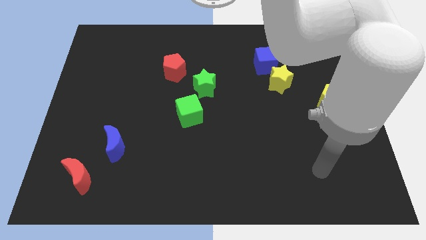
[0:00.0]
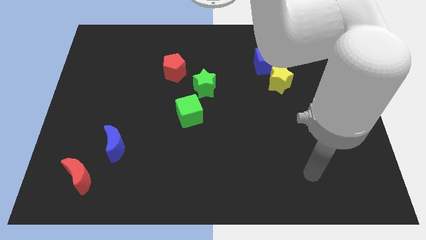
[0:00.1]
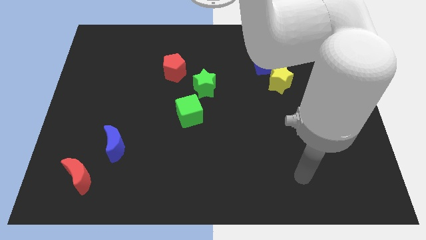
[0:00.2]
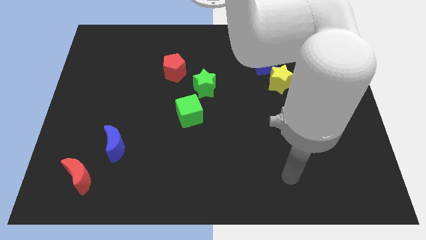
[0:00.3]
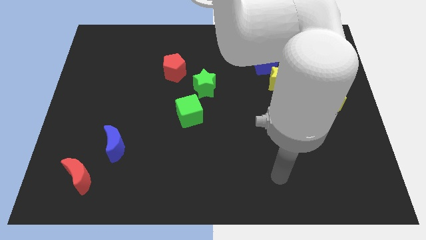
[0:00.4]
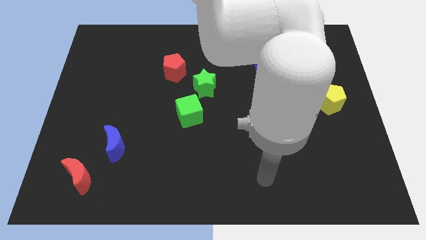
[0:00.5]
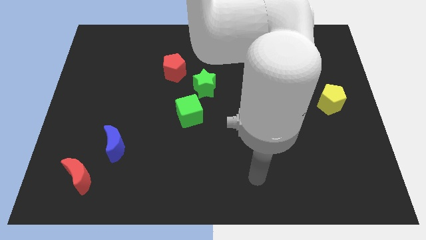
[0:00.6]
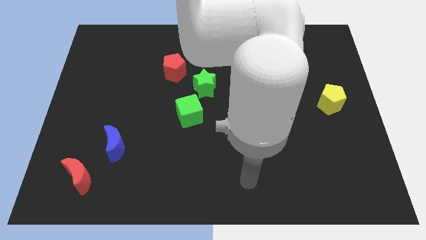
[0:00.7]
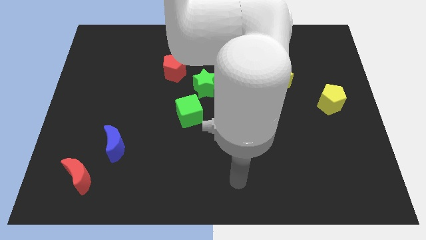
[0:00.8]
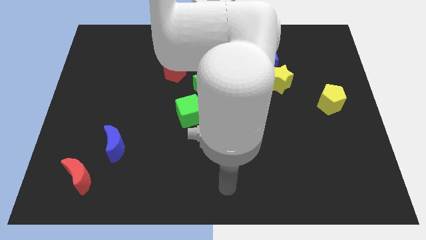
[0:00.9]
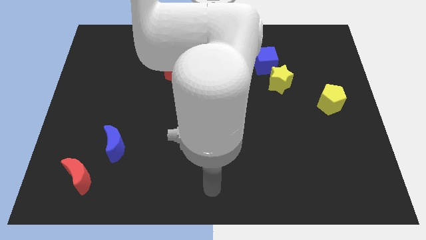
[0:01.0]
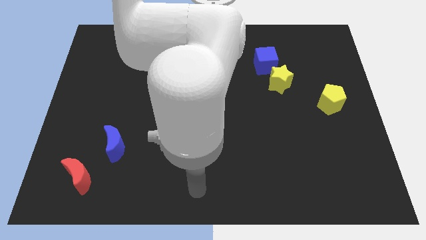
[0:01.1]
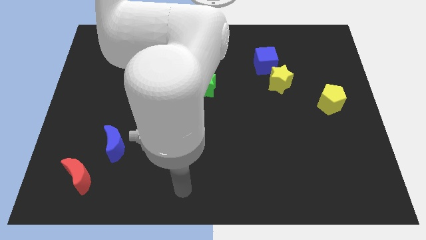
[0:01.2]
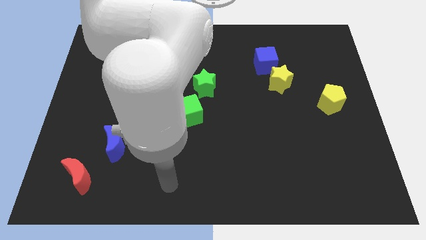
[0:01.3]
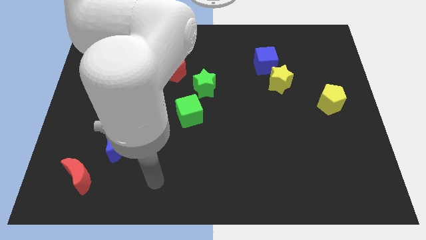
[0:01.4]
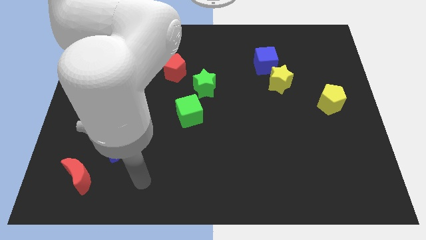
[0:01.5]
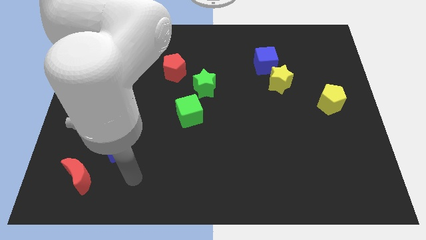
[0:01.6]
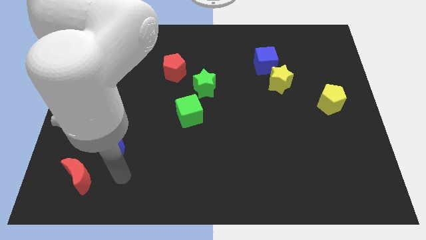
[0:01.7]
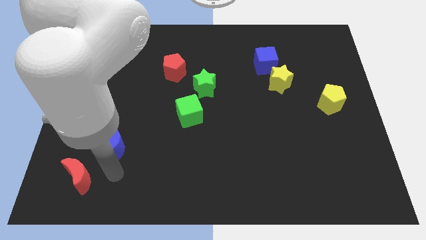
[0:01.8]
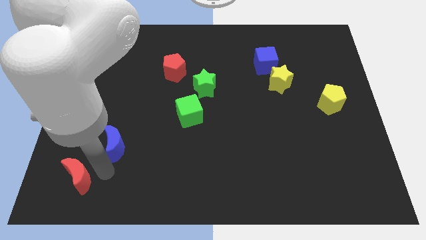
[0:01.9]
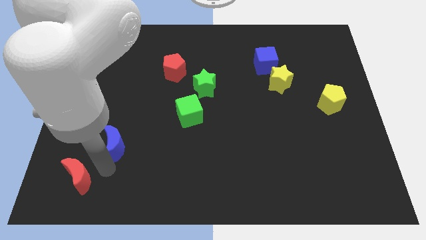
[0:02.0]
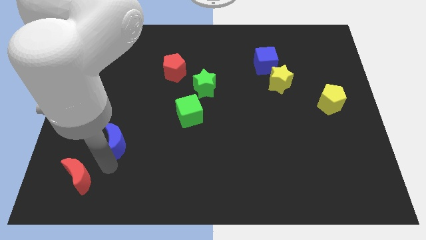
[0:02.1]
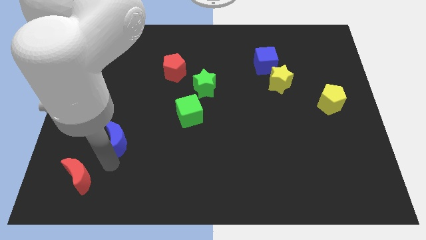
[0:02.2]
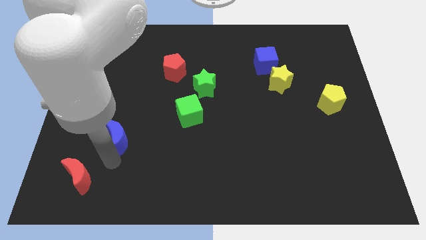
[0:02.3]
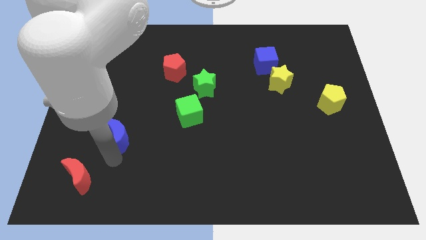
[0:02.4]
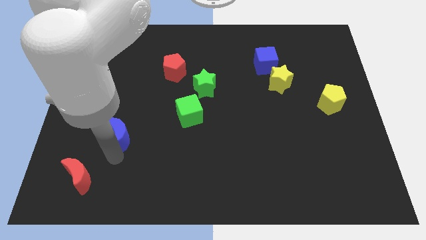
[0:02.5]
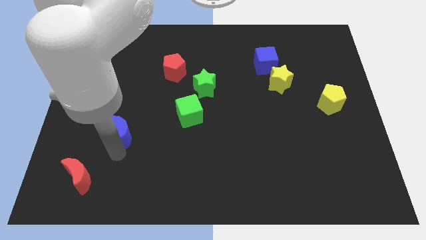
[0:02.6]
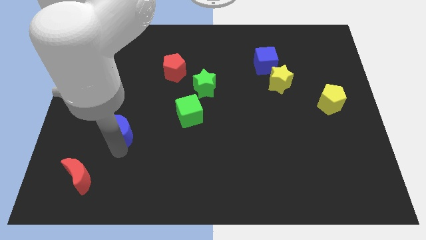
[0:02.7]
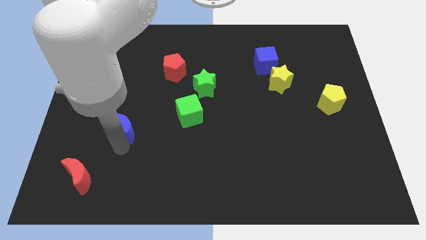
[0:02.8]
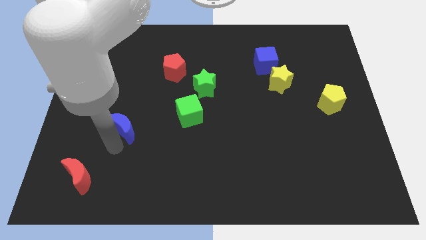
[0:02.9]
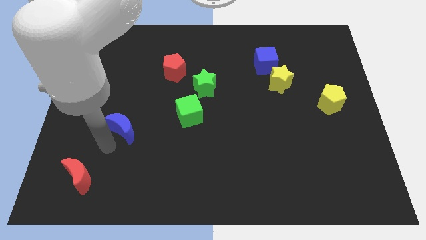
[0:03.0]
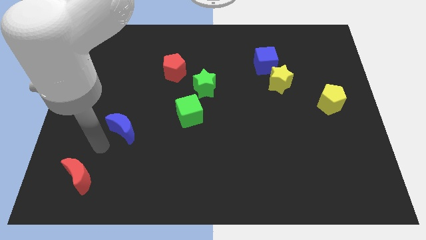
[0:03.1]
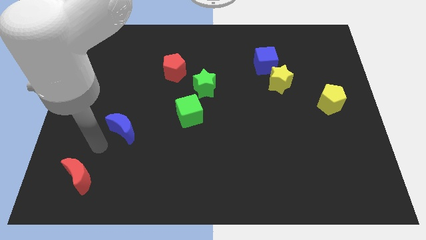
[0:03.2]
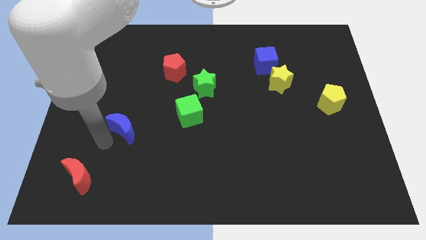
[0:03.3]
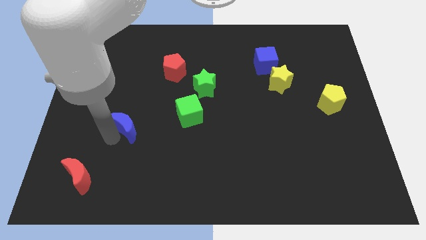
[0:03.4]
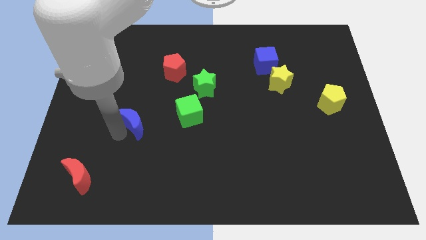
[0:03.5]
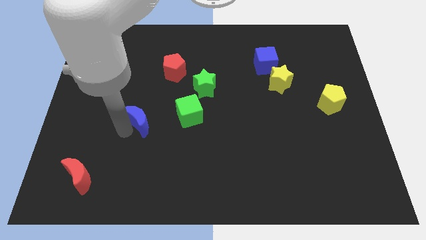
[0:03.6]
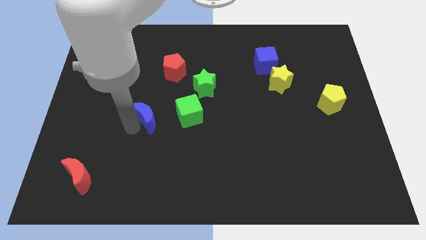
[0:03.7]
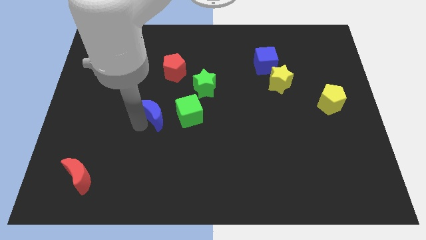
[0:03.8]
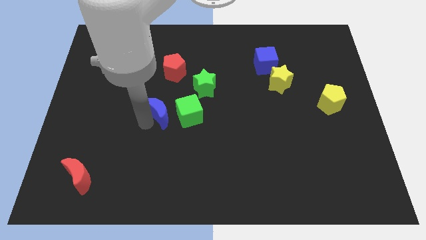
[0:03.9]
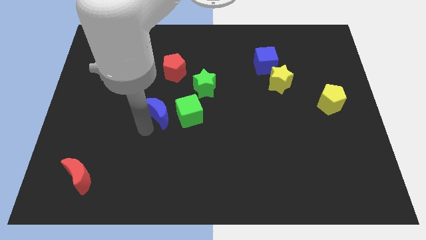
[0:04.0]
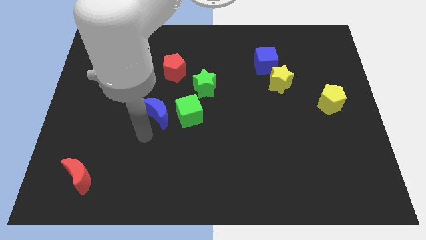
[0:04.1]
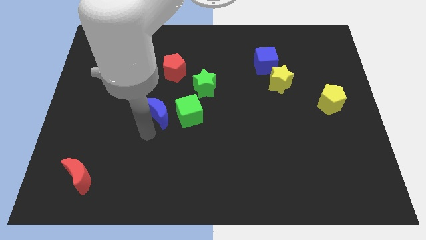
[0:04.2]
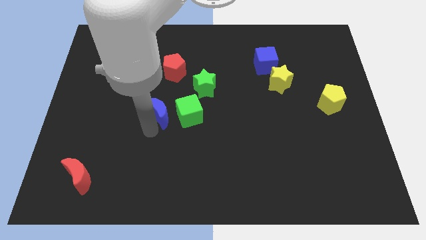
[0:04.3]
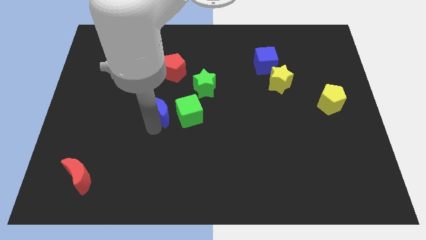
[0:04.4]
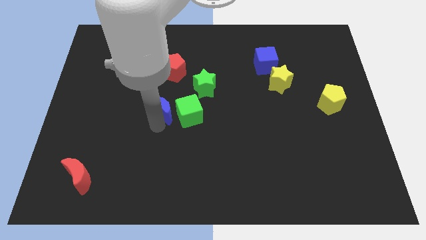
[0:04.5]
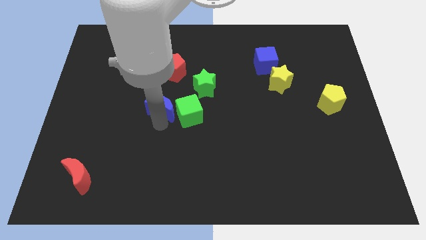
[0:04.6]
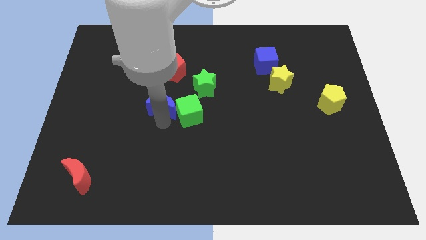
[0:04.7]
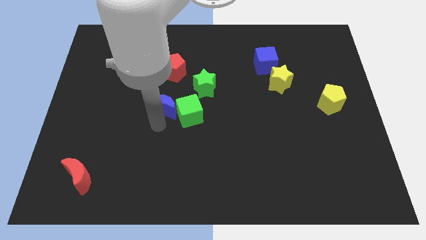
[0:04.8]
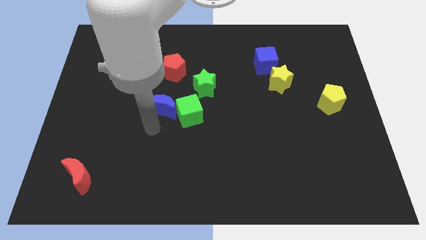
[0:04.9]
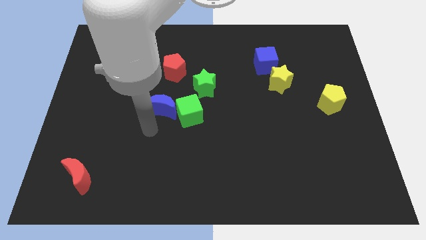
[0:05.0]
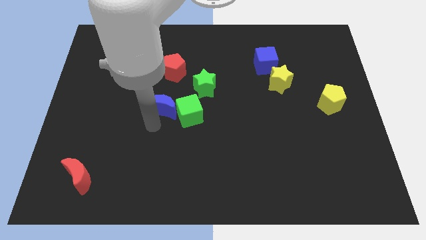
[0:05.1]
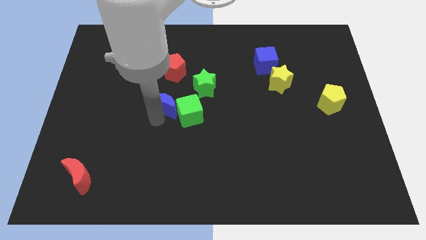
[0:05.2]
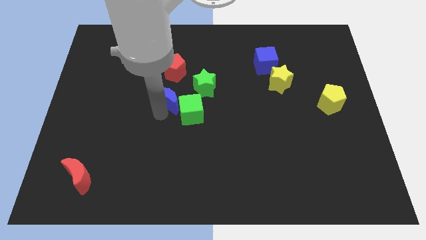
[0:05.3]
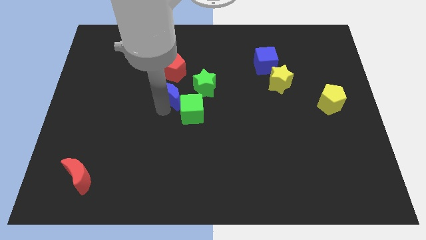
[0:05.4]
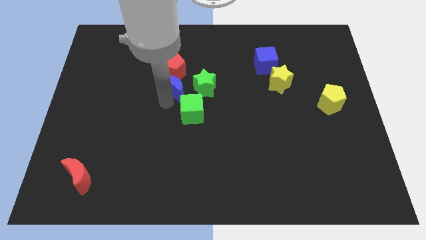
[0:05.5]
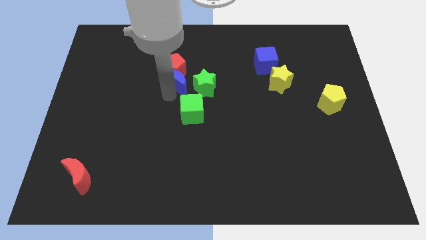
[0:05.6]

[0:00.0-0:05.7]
slide the blue moon upwards and to the right diagonally

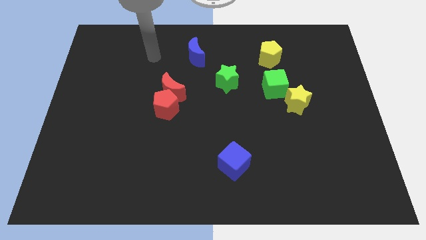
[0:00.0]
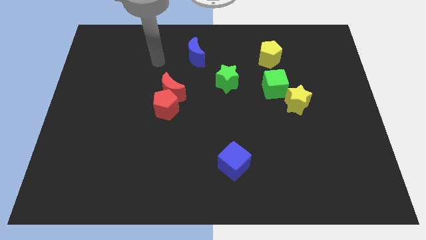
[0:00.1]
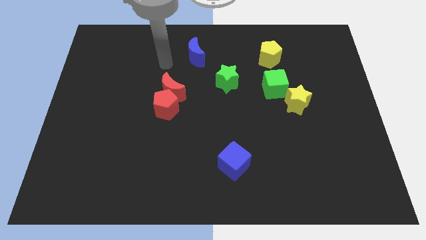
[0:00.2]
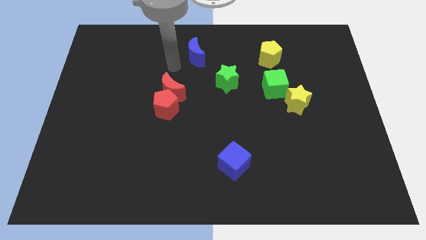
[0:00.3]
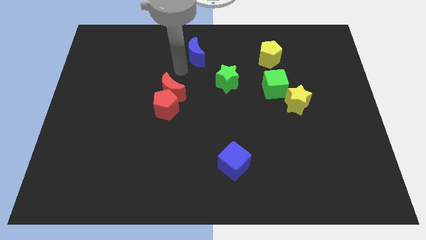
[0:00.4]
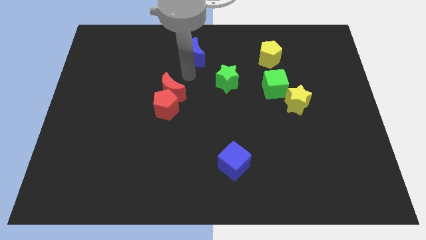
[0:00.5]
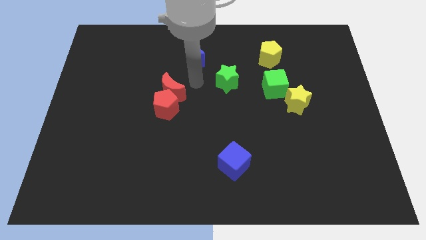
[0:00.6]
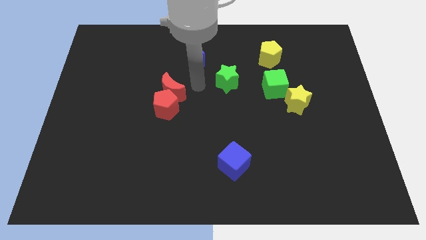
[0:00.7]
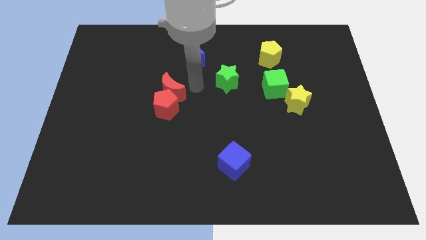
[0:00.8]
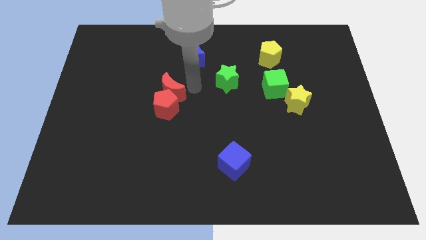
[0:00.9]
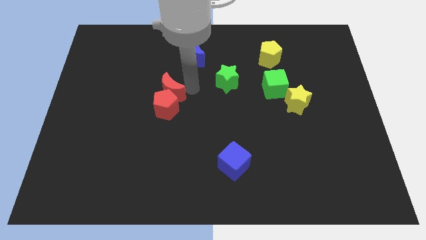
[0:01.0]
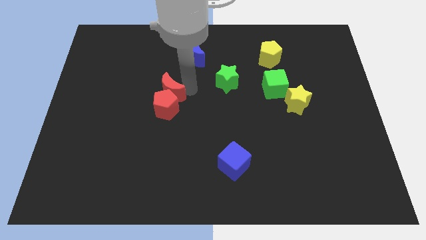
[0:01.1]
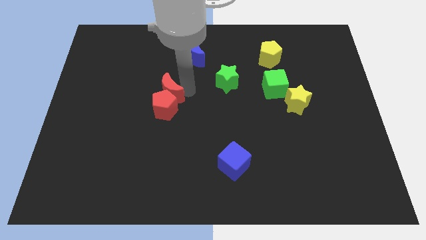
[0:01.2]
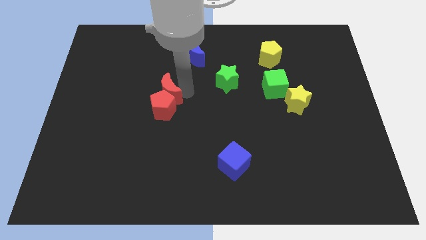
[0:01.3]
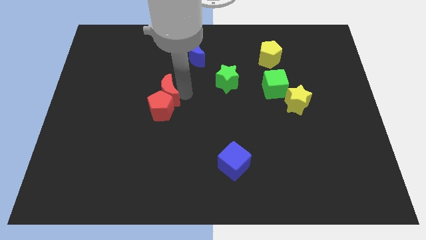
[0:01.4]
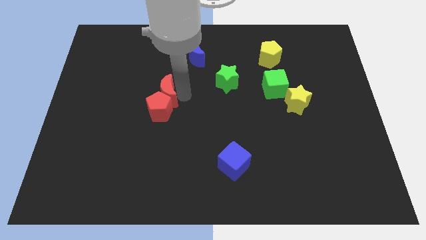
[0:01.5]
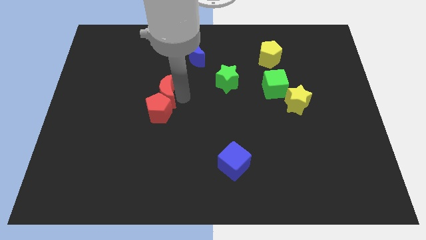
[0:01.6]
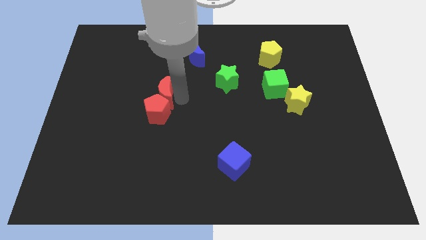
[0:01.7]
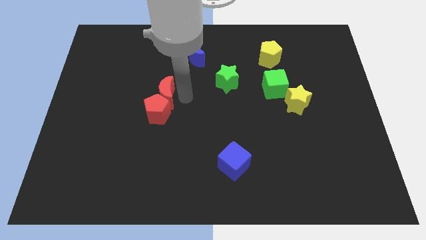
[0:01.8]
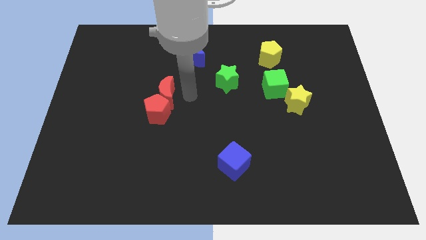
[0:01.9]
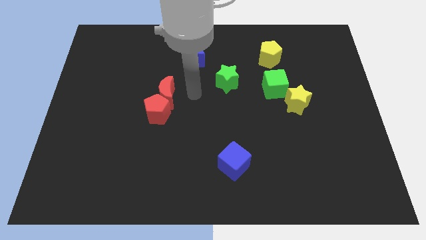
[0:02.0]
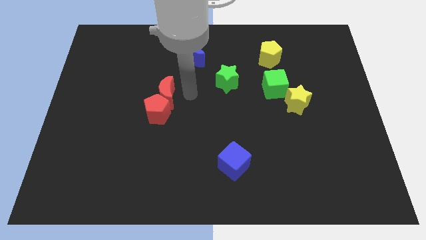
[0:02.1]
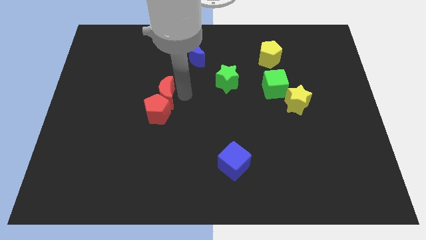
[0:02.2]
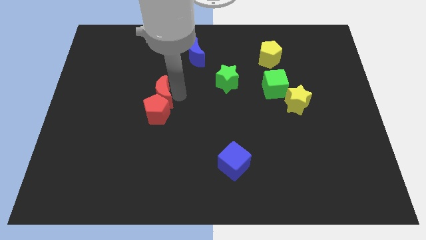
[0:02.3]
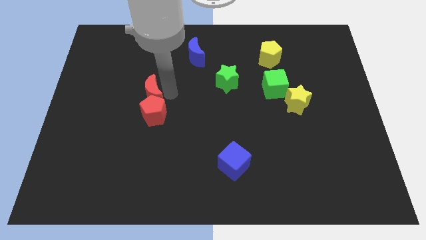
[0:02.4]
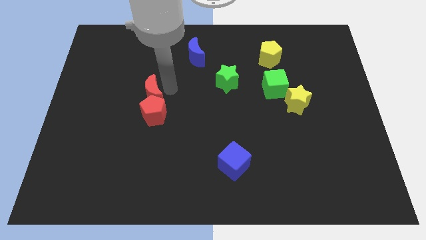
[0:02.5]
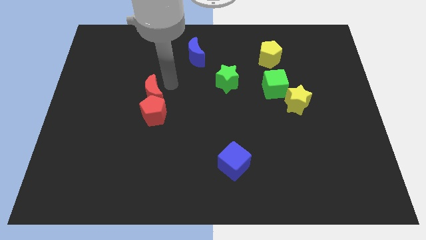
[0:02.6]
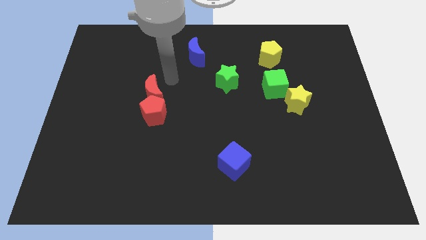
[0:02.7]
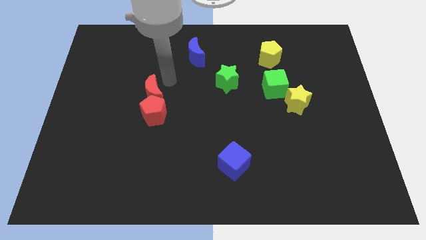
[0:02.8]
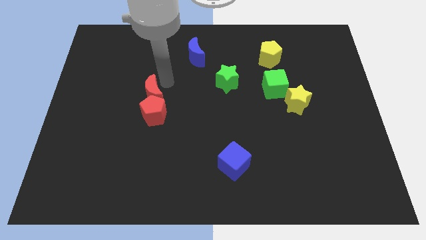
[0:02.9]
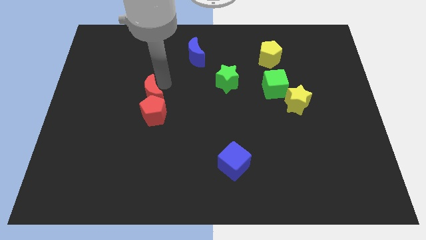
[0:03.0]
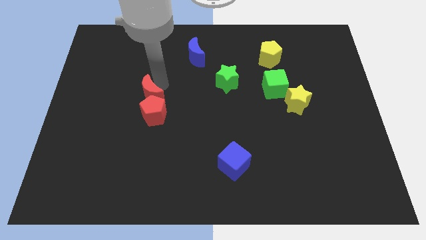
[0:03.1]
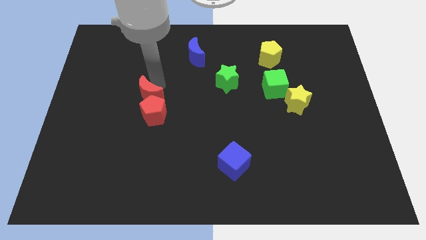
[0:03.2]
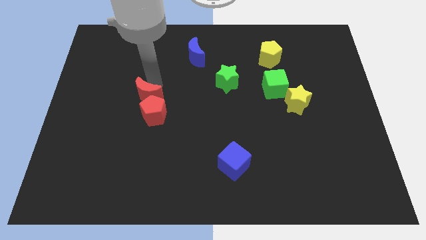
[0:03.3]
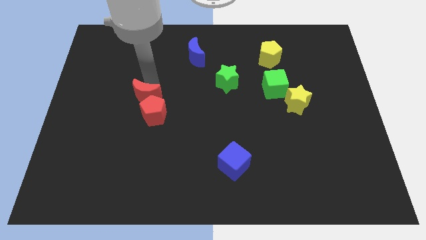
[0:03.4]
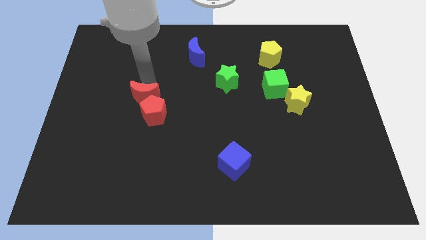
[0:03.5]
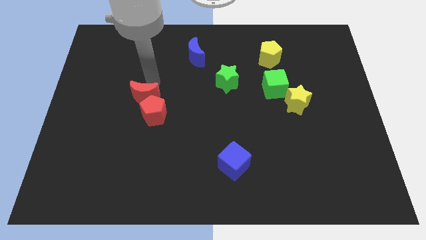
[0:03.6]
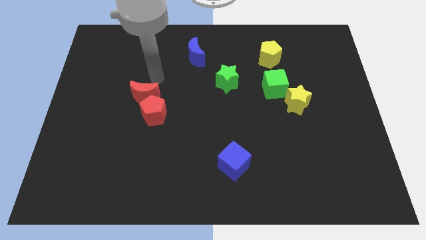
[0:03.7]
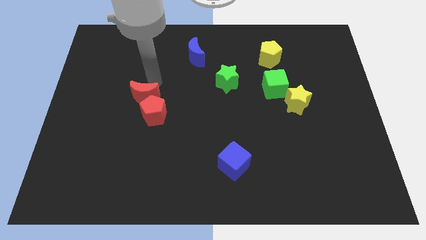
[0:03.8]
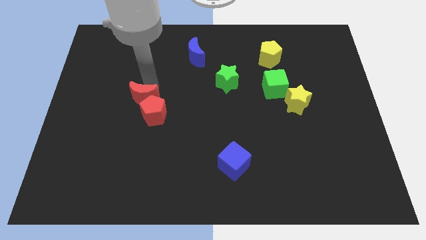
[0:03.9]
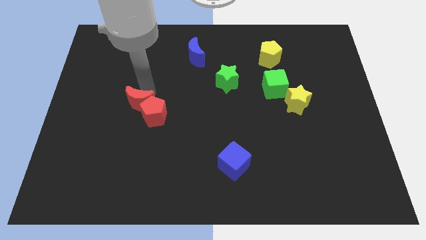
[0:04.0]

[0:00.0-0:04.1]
push the red moon somewhat downwards and to the left
